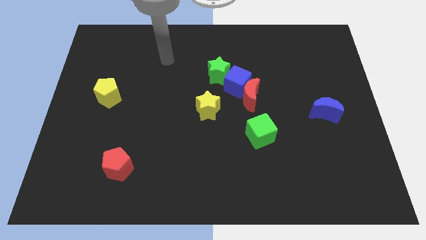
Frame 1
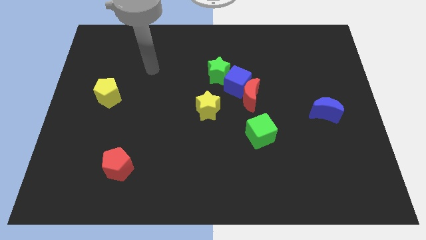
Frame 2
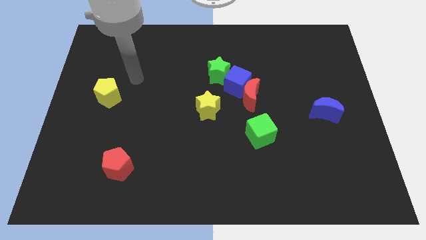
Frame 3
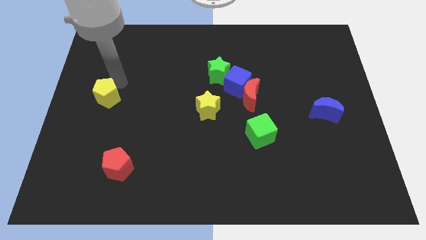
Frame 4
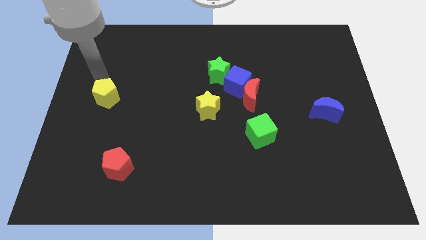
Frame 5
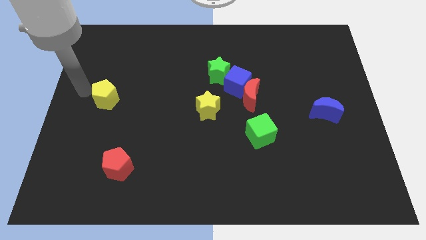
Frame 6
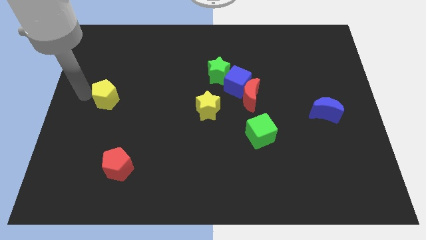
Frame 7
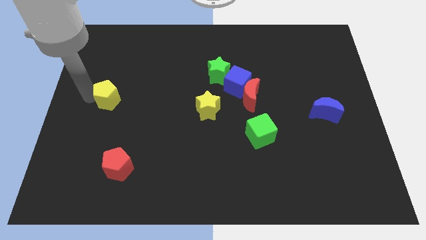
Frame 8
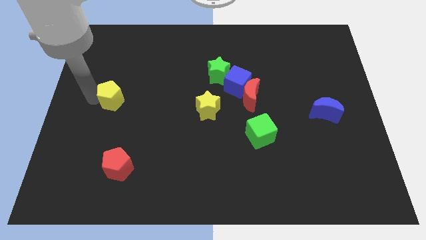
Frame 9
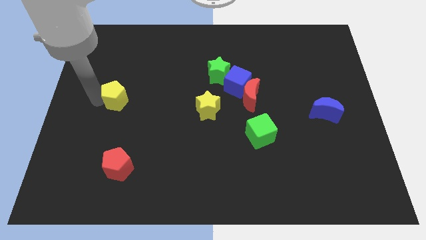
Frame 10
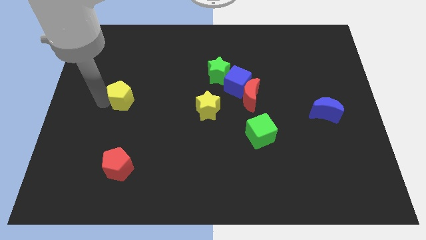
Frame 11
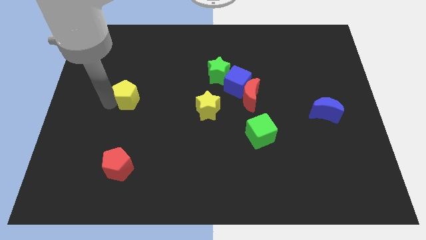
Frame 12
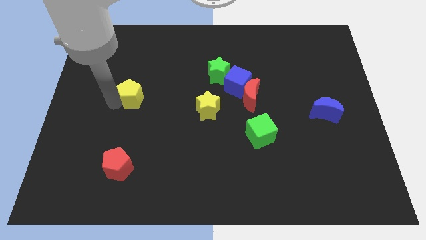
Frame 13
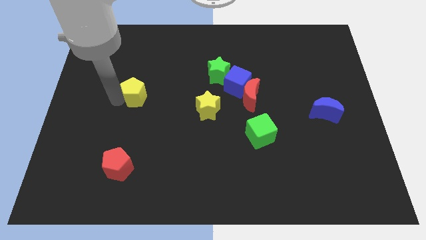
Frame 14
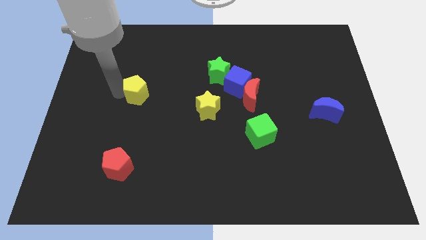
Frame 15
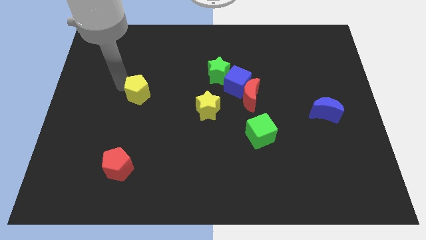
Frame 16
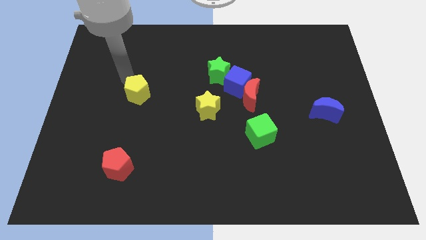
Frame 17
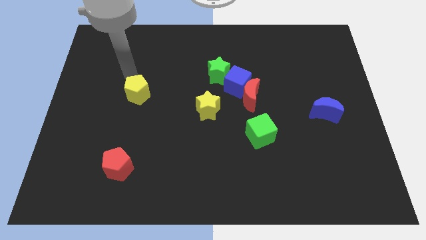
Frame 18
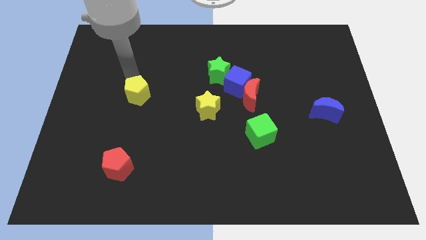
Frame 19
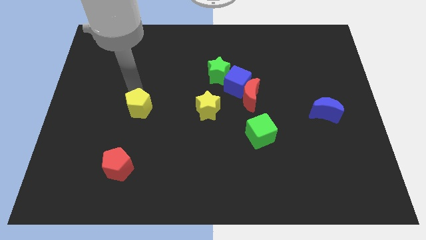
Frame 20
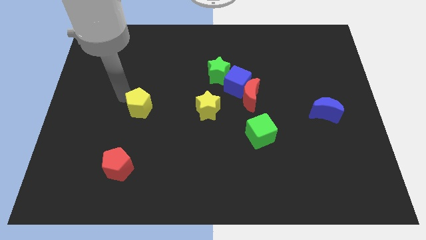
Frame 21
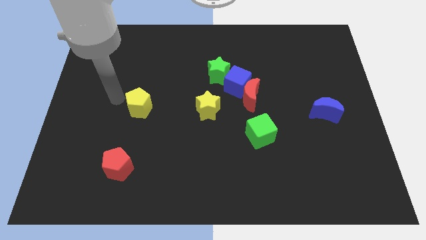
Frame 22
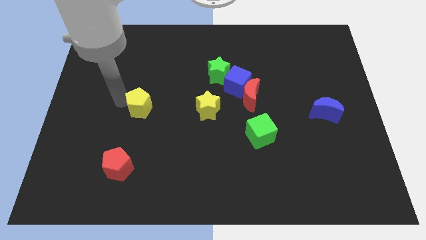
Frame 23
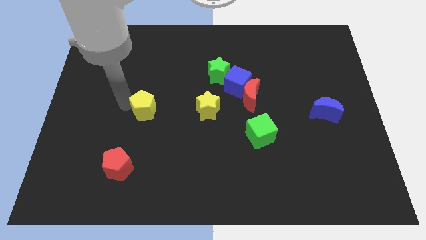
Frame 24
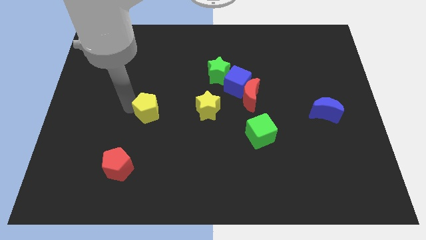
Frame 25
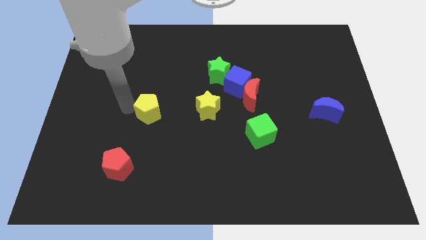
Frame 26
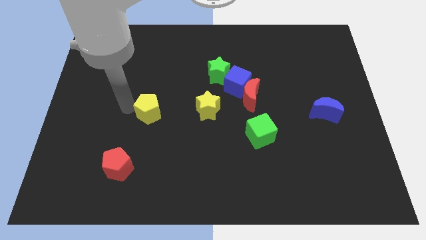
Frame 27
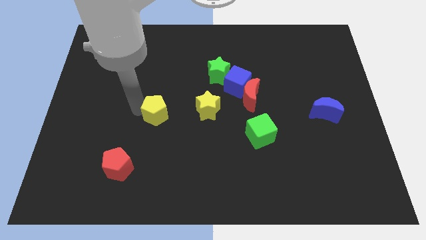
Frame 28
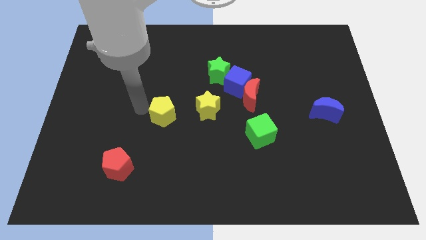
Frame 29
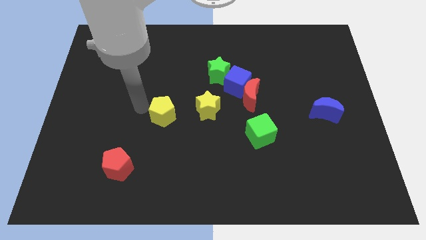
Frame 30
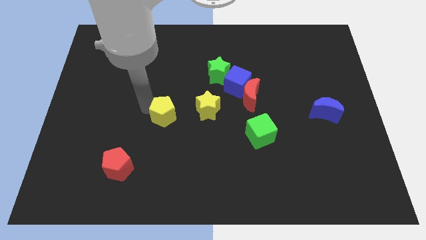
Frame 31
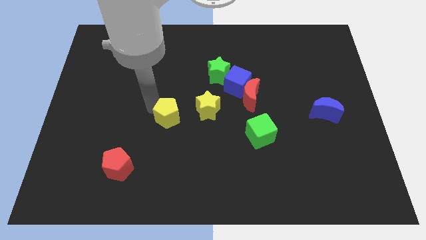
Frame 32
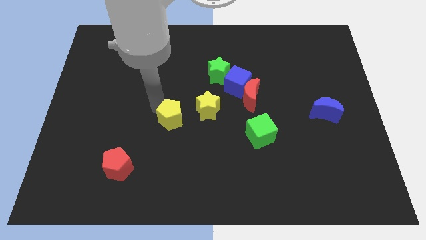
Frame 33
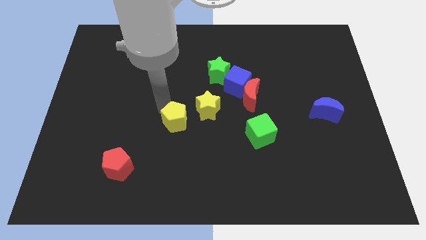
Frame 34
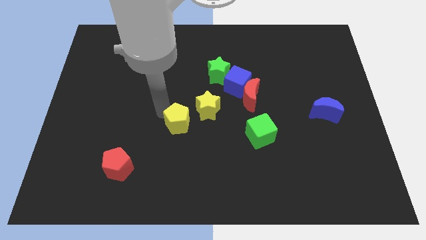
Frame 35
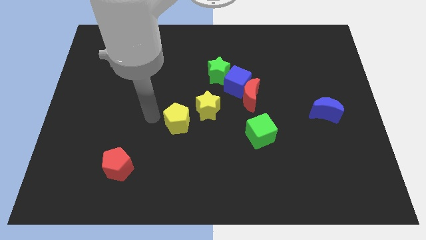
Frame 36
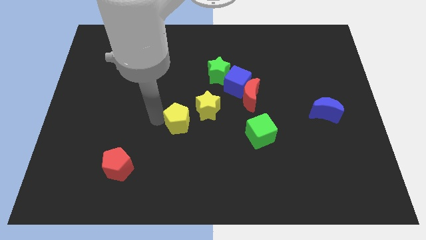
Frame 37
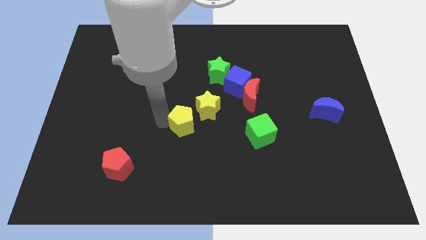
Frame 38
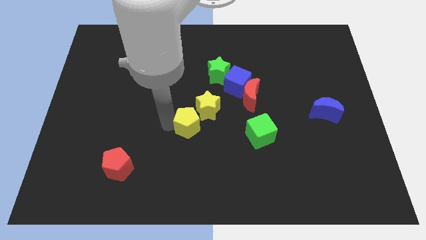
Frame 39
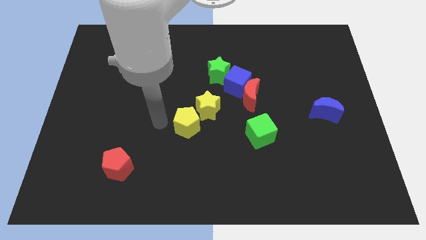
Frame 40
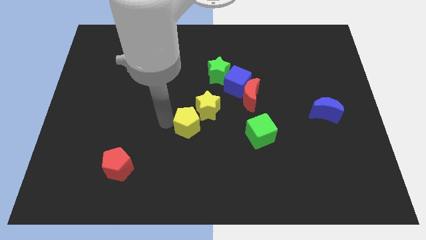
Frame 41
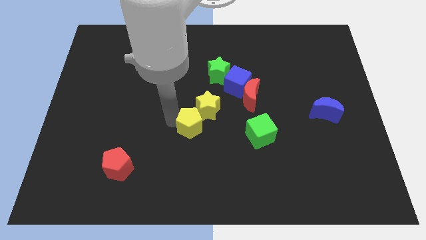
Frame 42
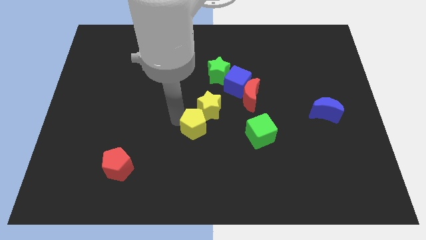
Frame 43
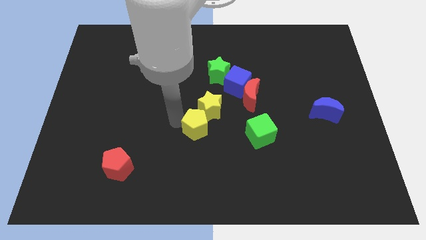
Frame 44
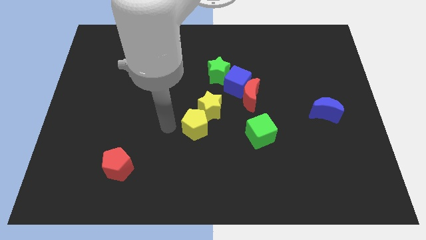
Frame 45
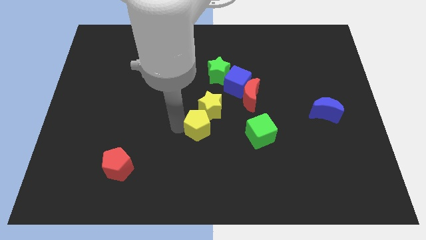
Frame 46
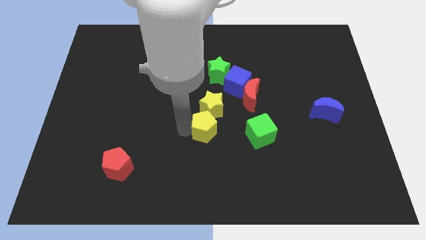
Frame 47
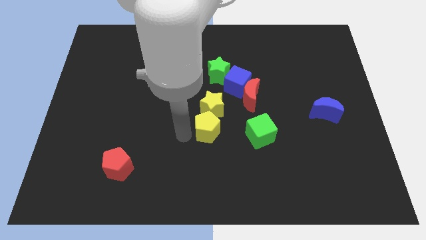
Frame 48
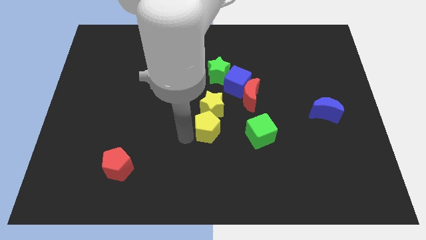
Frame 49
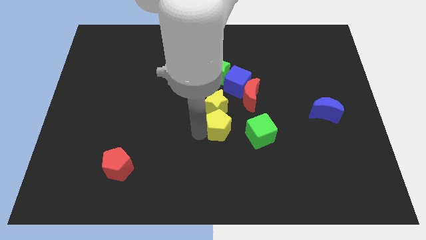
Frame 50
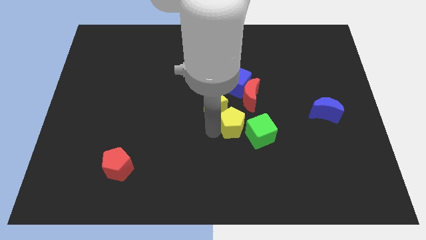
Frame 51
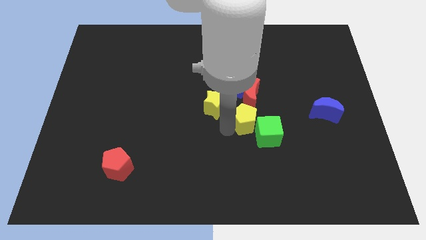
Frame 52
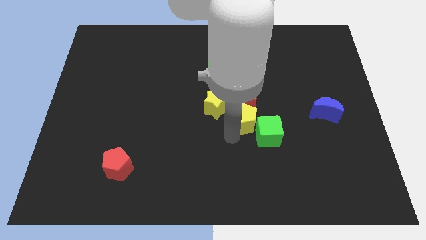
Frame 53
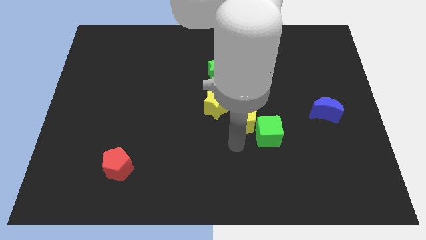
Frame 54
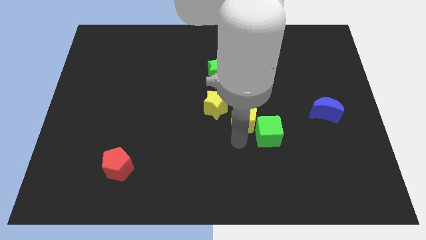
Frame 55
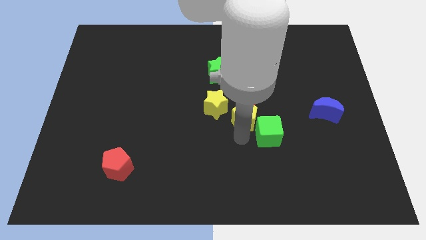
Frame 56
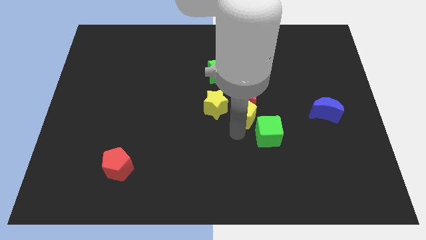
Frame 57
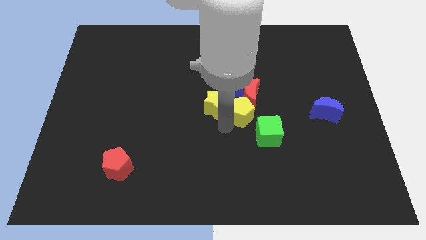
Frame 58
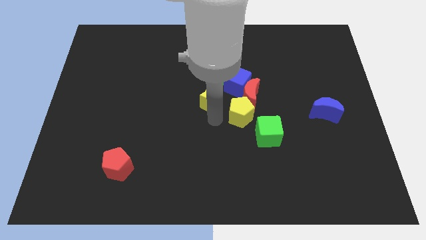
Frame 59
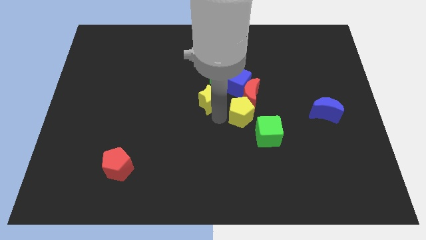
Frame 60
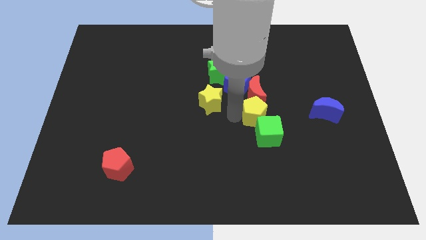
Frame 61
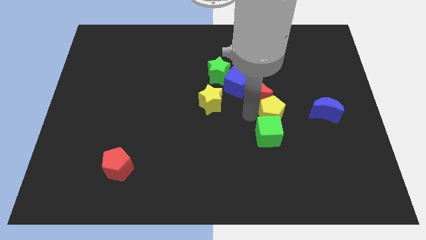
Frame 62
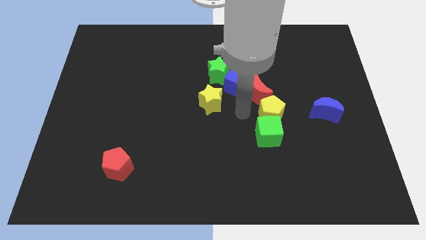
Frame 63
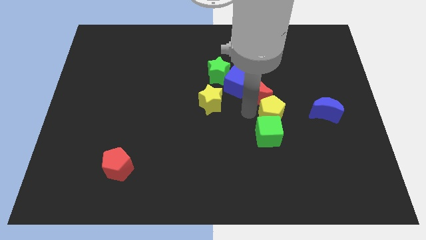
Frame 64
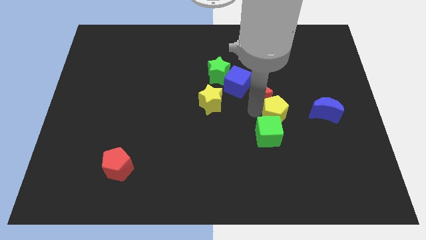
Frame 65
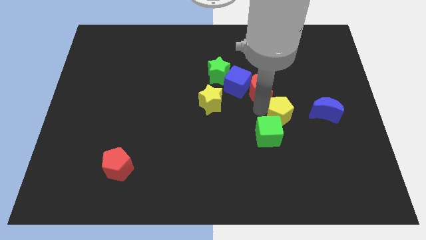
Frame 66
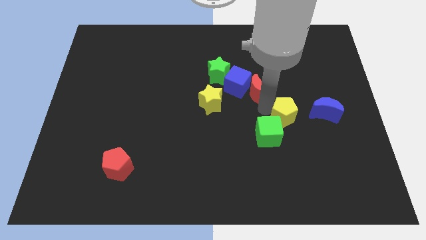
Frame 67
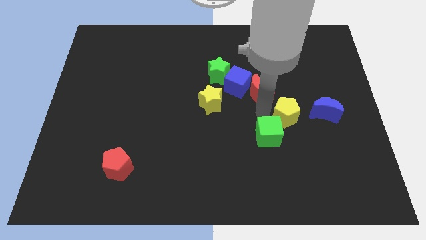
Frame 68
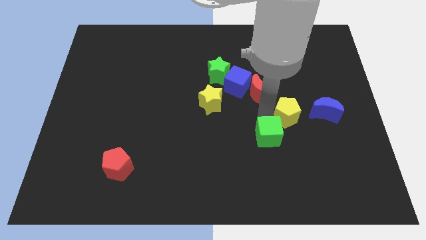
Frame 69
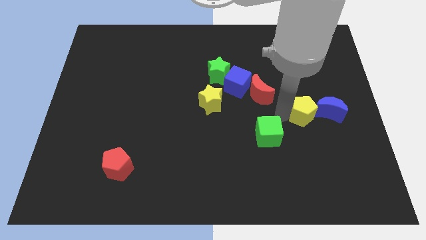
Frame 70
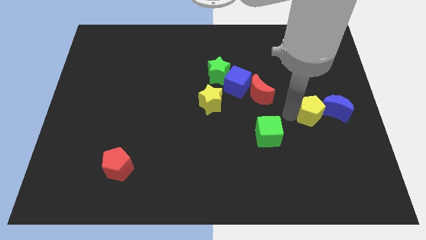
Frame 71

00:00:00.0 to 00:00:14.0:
push the yellow pentagon to the blue moon

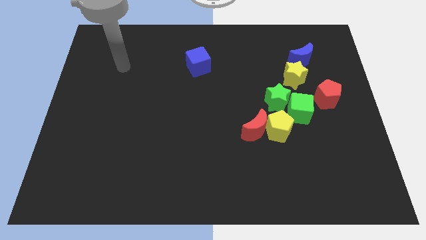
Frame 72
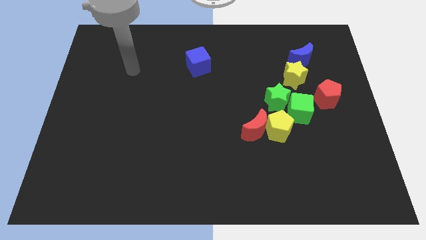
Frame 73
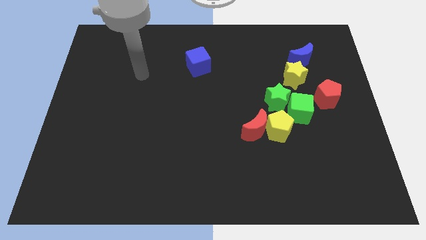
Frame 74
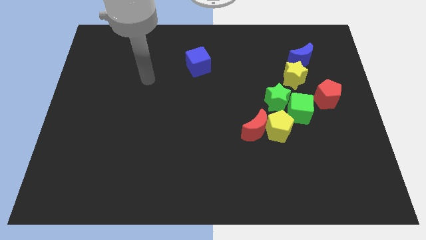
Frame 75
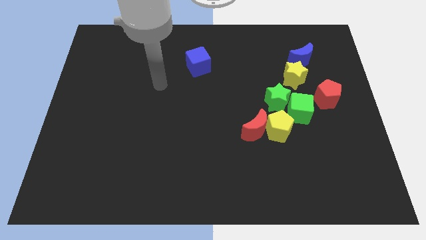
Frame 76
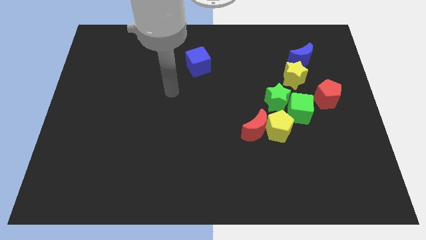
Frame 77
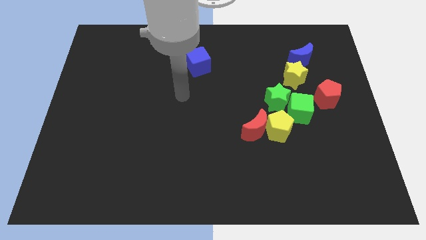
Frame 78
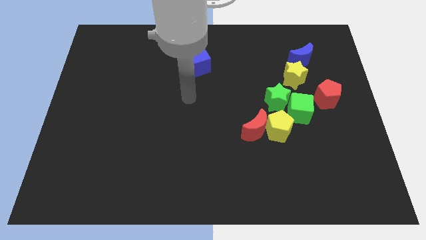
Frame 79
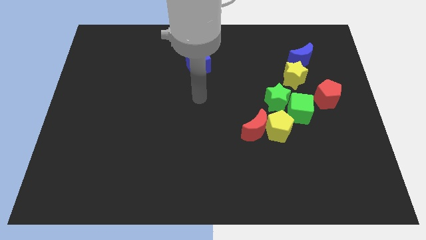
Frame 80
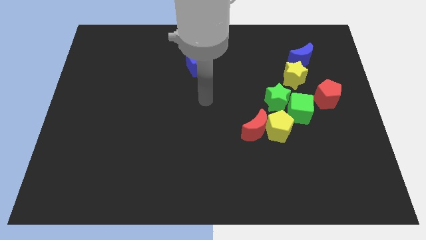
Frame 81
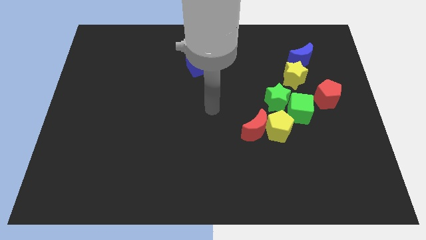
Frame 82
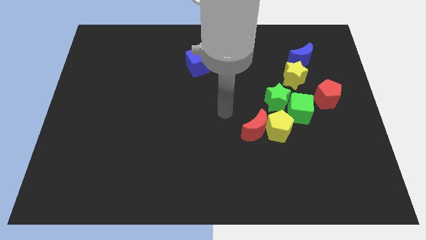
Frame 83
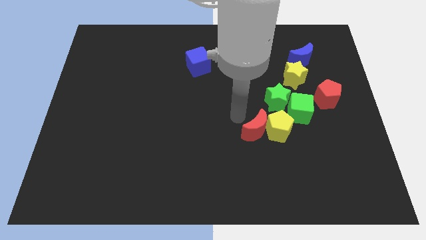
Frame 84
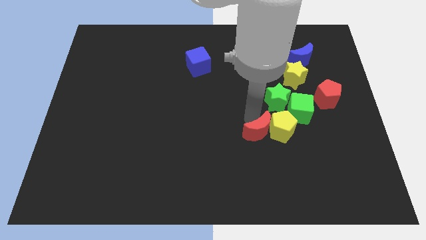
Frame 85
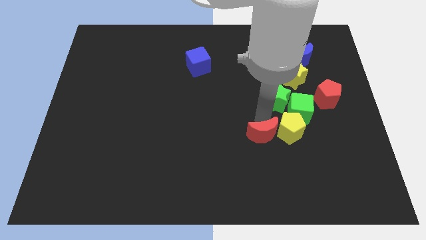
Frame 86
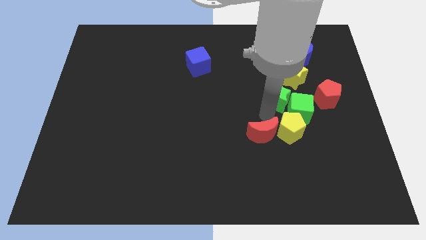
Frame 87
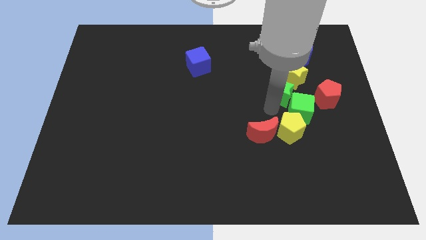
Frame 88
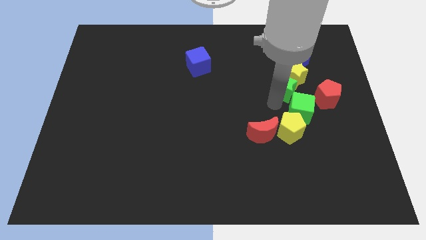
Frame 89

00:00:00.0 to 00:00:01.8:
push the green star to the yellow star
